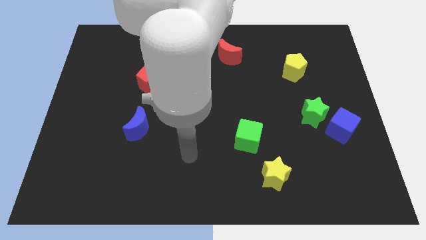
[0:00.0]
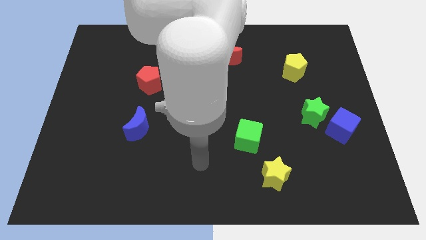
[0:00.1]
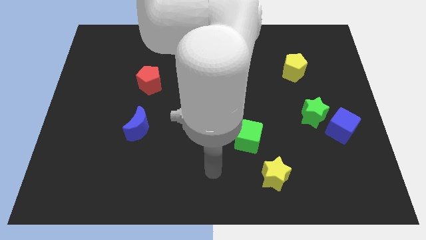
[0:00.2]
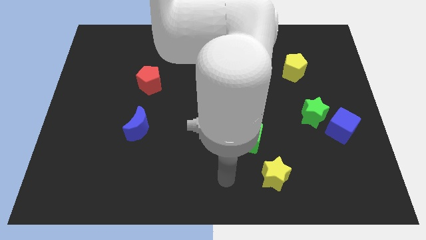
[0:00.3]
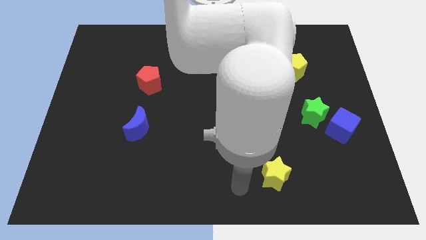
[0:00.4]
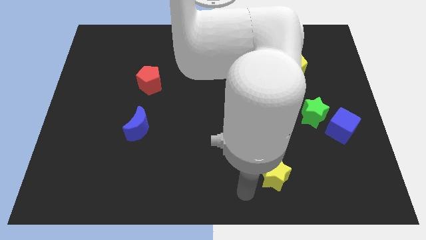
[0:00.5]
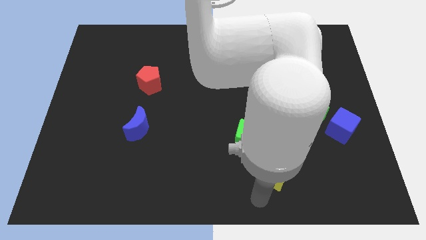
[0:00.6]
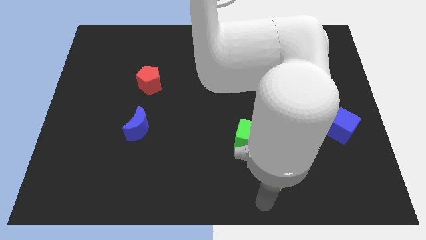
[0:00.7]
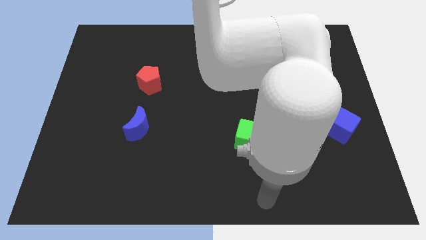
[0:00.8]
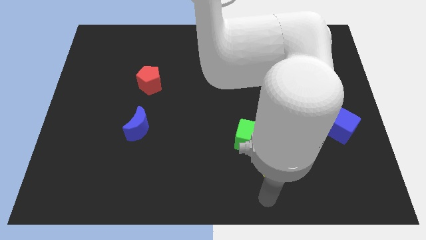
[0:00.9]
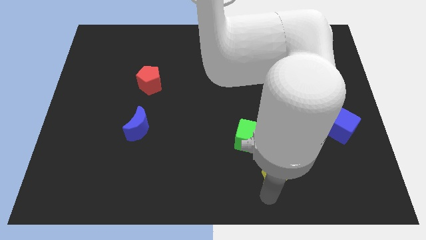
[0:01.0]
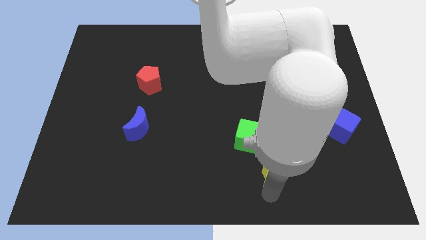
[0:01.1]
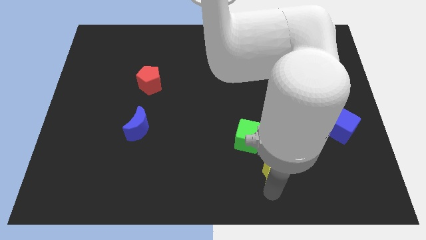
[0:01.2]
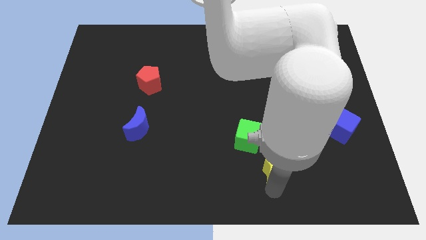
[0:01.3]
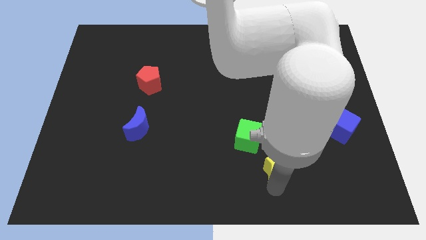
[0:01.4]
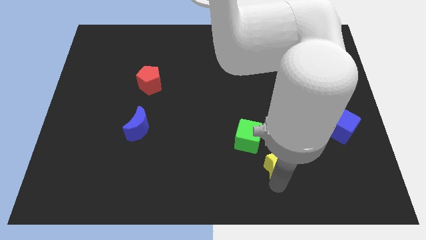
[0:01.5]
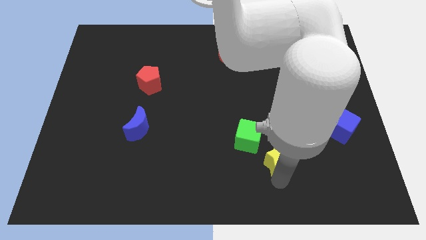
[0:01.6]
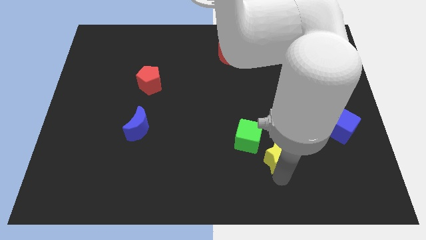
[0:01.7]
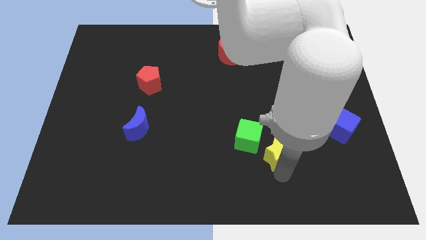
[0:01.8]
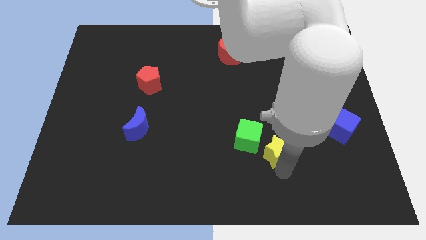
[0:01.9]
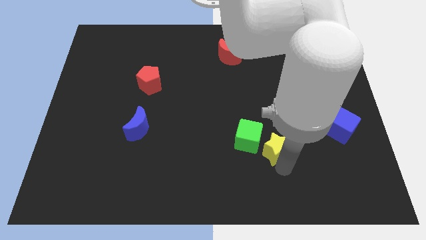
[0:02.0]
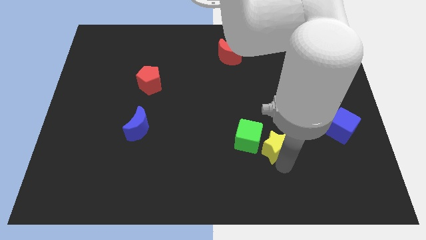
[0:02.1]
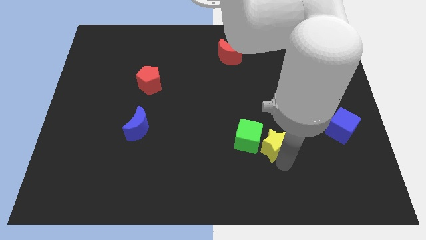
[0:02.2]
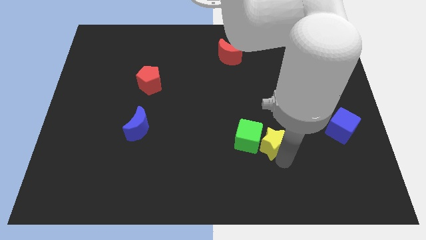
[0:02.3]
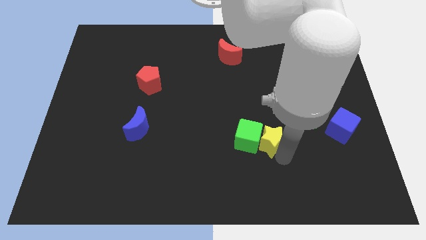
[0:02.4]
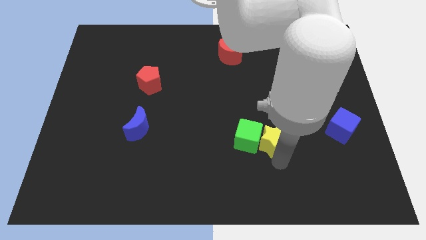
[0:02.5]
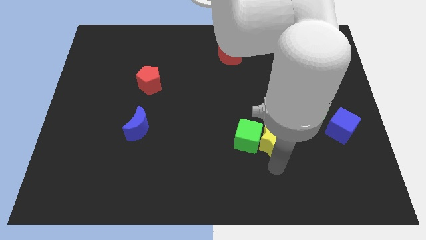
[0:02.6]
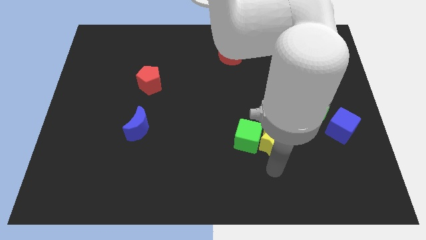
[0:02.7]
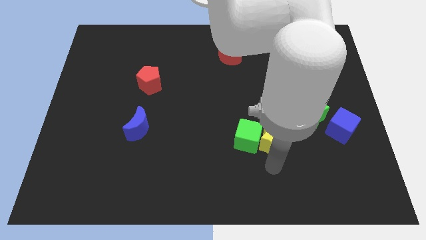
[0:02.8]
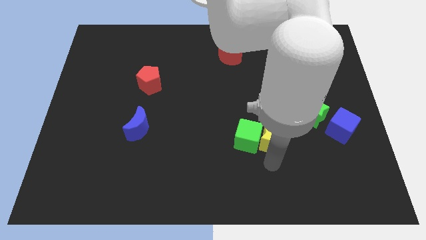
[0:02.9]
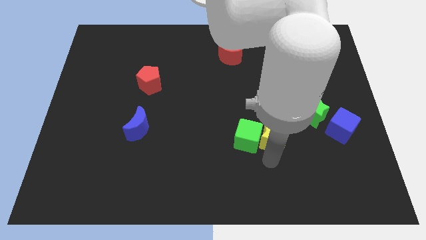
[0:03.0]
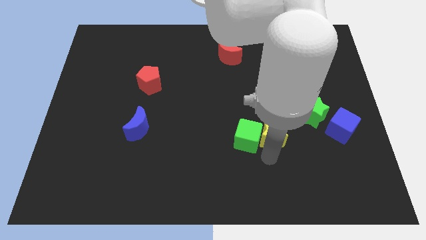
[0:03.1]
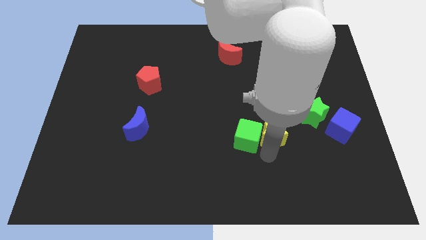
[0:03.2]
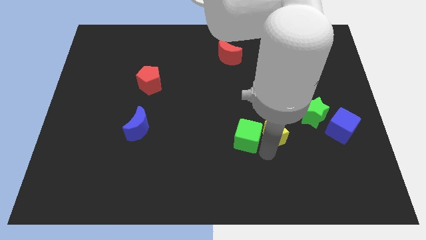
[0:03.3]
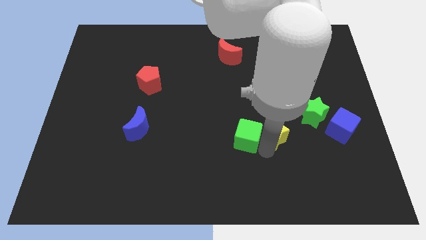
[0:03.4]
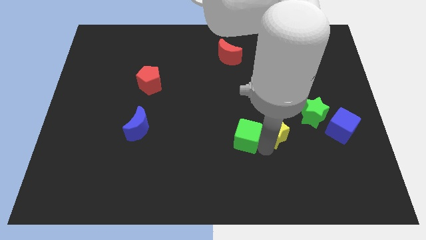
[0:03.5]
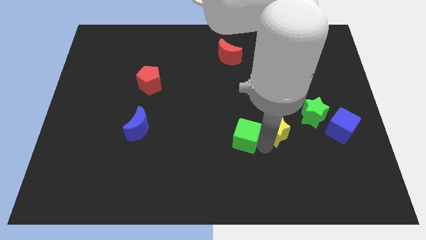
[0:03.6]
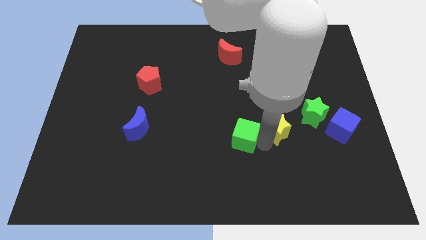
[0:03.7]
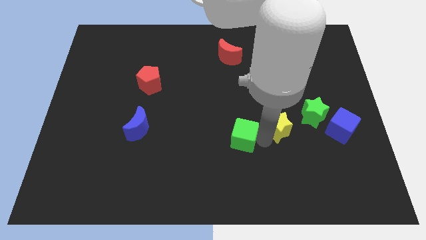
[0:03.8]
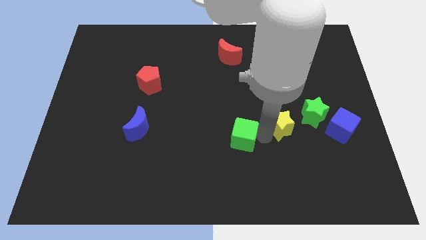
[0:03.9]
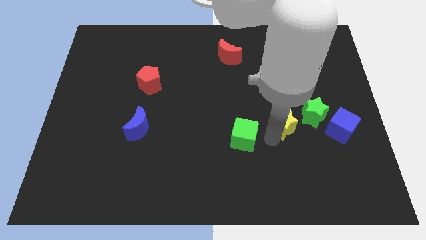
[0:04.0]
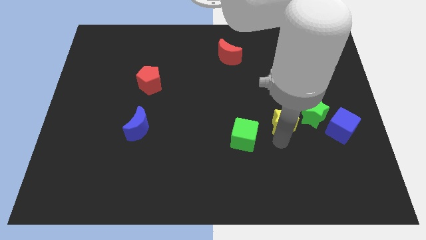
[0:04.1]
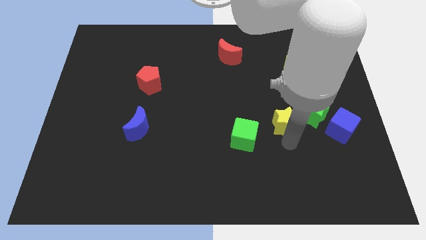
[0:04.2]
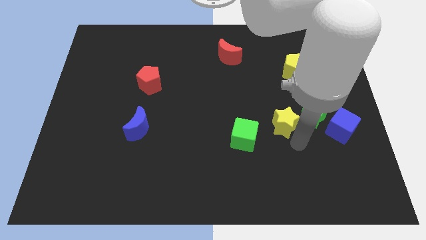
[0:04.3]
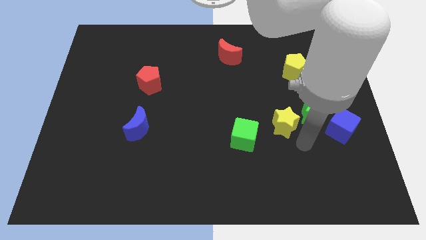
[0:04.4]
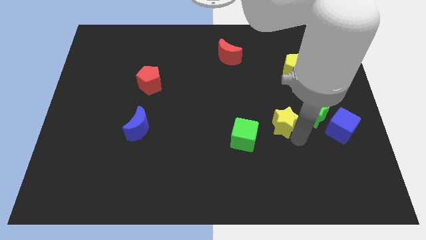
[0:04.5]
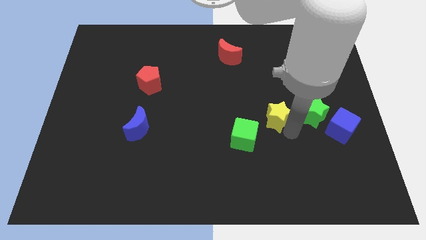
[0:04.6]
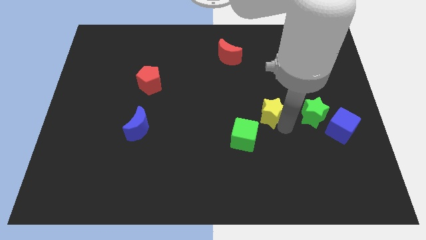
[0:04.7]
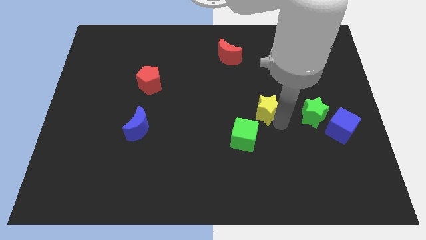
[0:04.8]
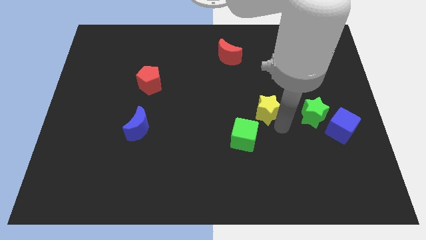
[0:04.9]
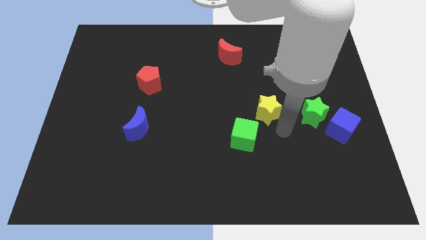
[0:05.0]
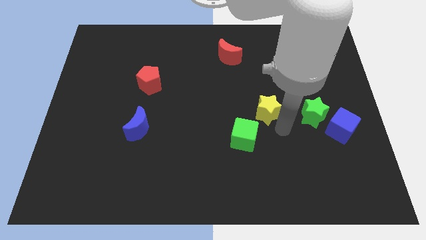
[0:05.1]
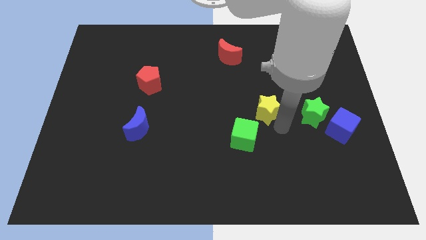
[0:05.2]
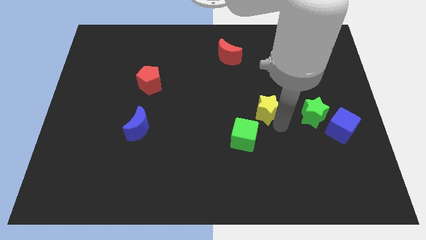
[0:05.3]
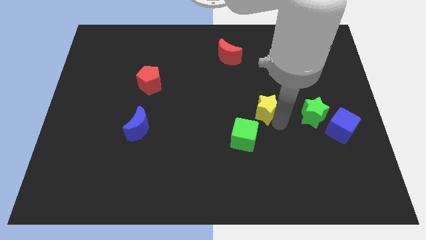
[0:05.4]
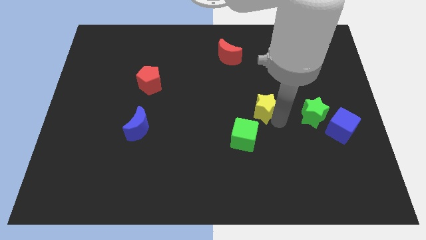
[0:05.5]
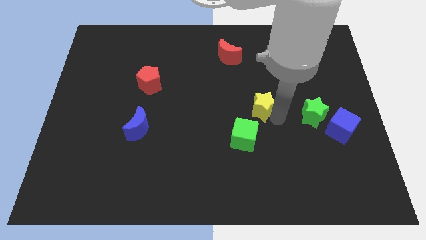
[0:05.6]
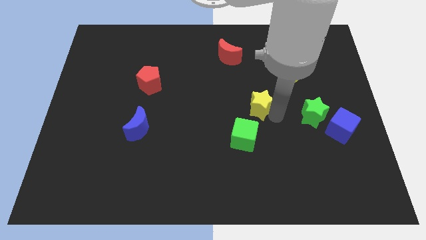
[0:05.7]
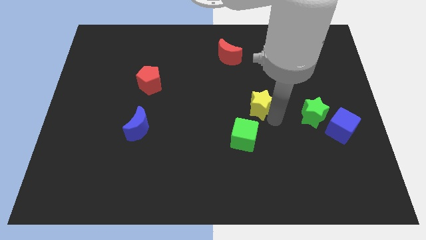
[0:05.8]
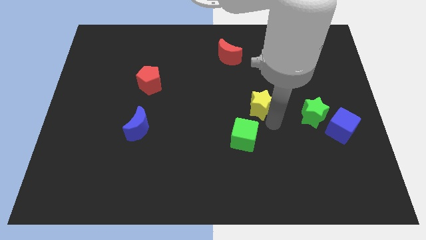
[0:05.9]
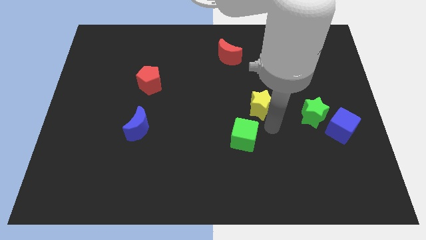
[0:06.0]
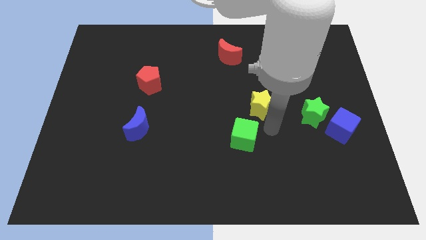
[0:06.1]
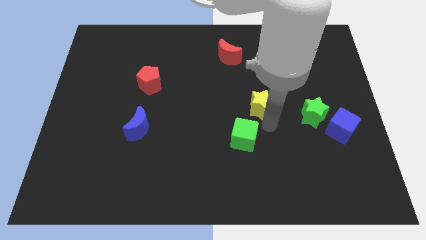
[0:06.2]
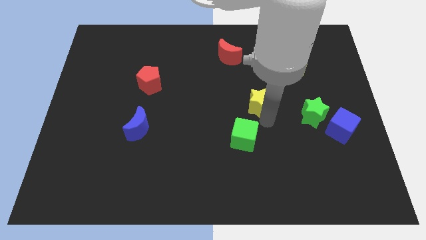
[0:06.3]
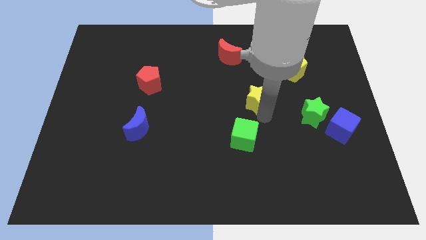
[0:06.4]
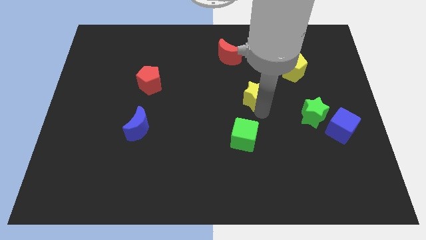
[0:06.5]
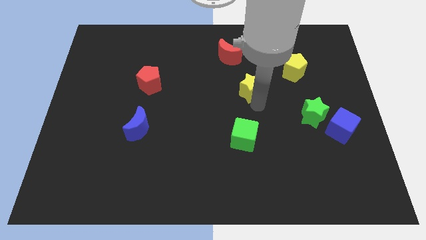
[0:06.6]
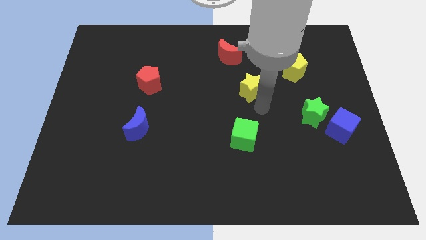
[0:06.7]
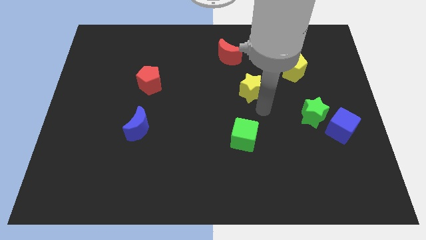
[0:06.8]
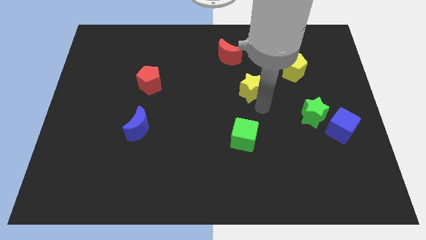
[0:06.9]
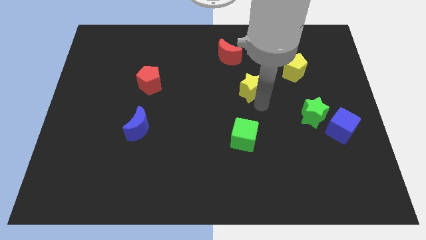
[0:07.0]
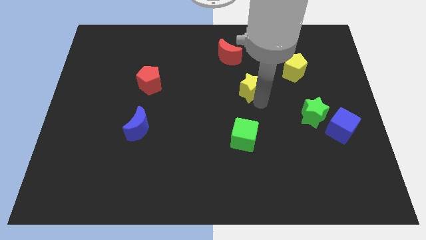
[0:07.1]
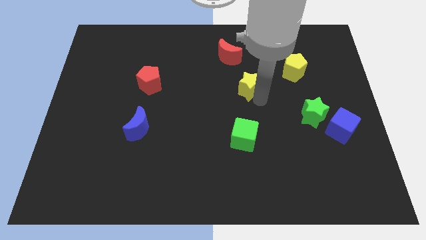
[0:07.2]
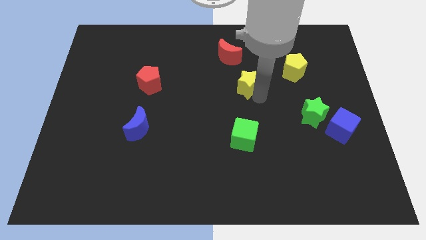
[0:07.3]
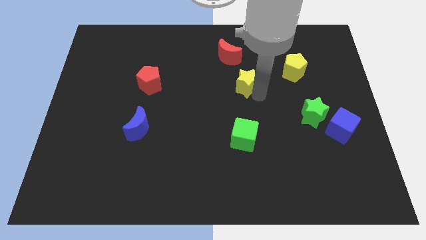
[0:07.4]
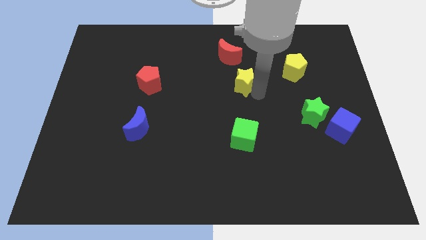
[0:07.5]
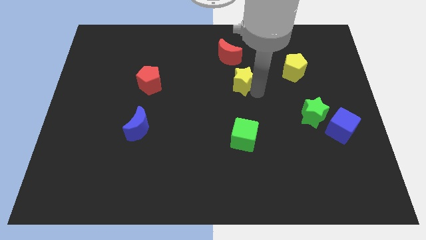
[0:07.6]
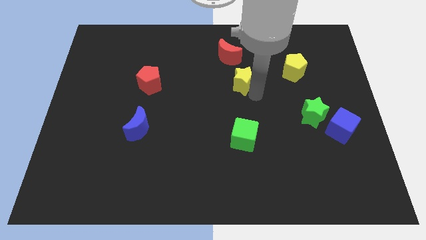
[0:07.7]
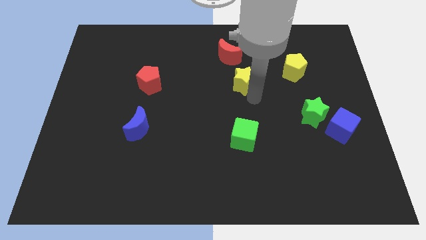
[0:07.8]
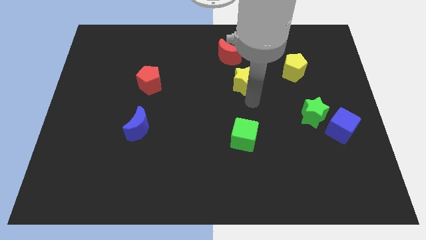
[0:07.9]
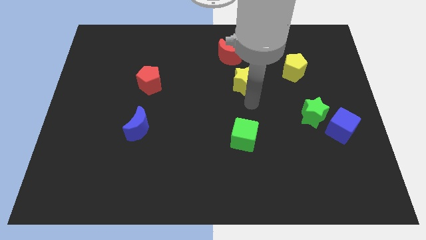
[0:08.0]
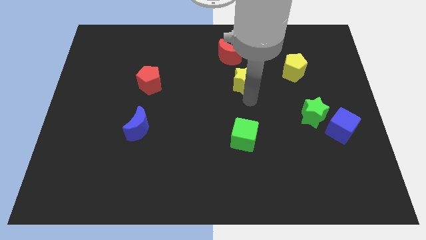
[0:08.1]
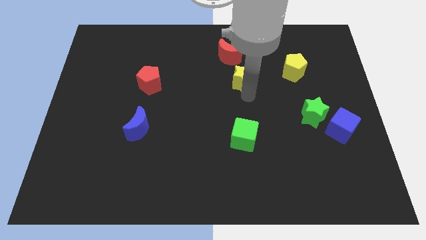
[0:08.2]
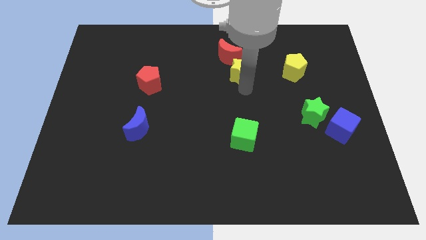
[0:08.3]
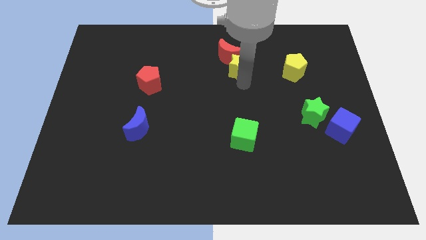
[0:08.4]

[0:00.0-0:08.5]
put the yellow star to the red moon
